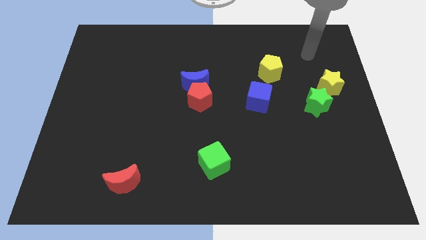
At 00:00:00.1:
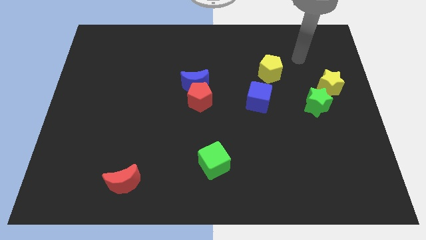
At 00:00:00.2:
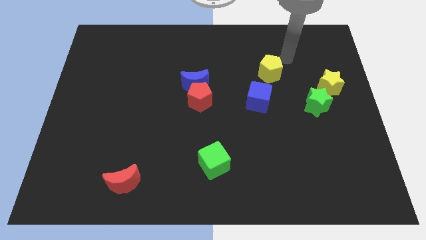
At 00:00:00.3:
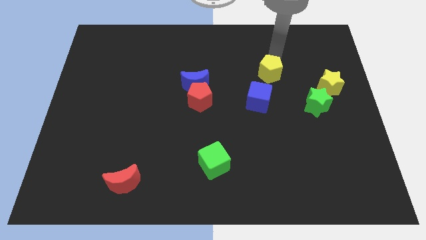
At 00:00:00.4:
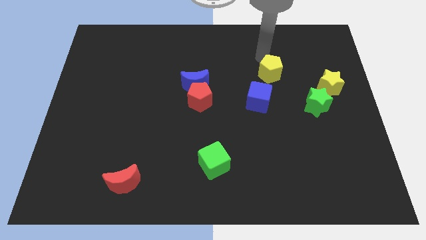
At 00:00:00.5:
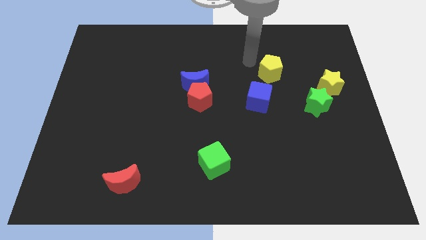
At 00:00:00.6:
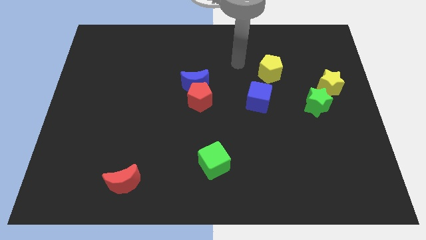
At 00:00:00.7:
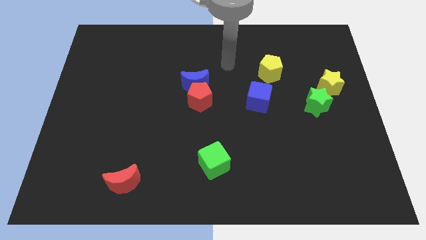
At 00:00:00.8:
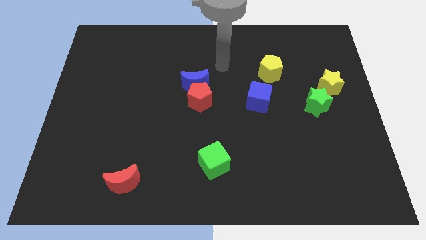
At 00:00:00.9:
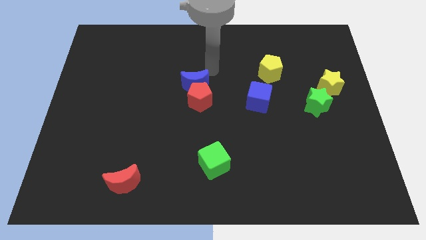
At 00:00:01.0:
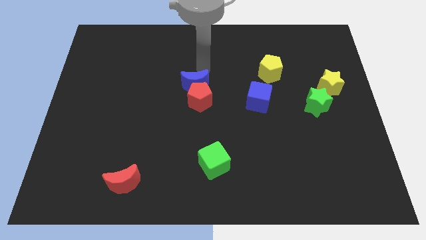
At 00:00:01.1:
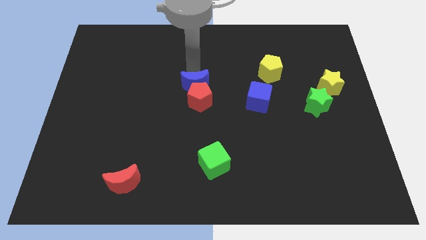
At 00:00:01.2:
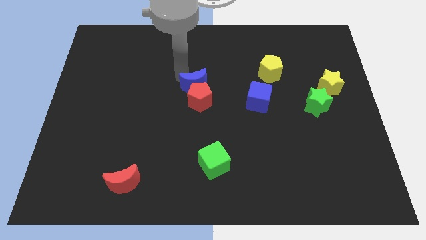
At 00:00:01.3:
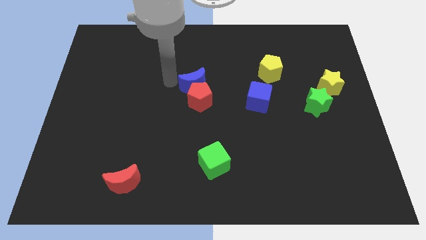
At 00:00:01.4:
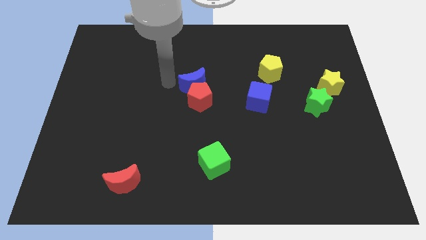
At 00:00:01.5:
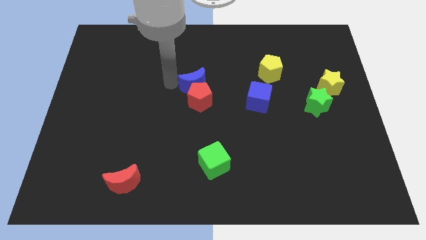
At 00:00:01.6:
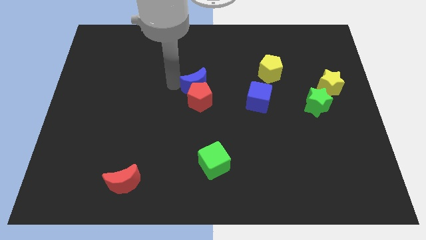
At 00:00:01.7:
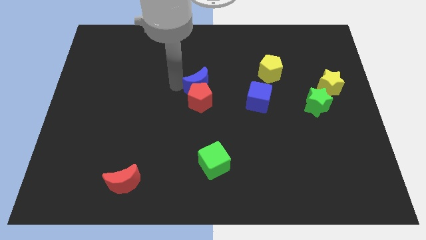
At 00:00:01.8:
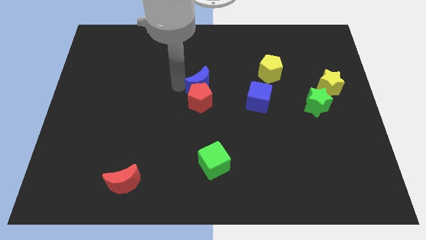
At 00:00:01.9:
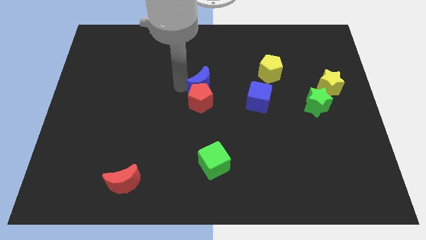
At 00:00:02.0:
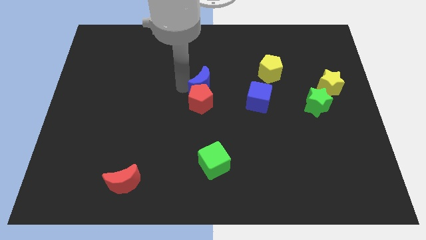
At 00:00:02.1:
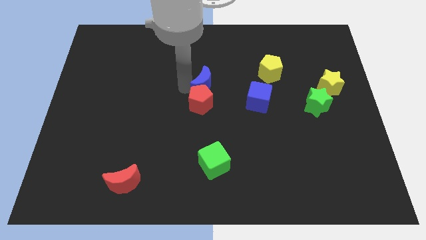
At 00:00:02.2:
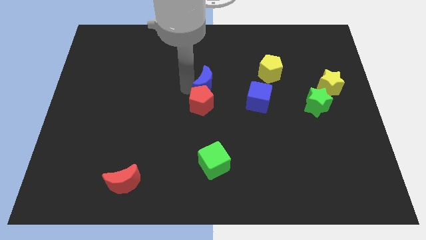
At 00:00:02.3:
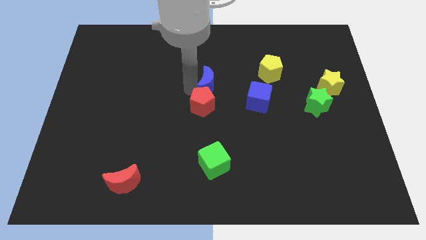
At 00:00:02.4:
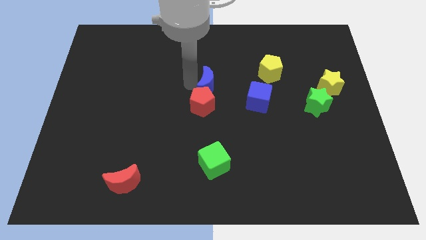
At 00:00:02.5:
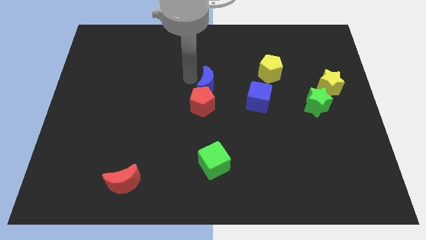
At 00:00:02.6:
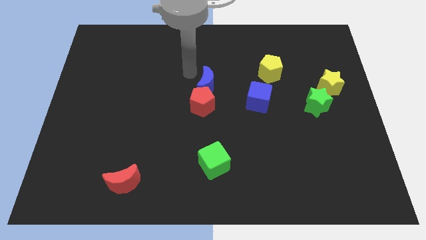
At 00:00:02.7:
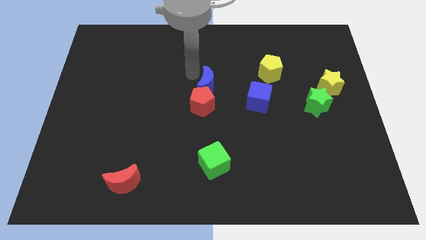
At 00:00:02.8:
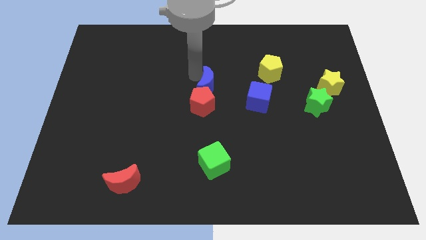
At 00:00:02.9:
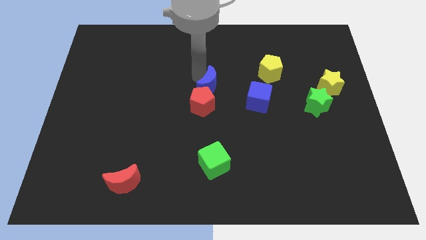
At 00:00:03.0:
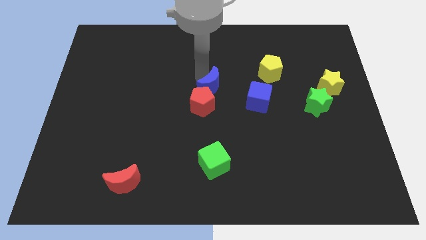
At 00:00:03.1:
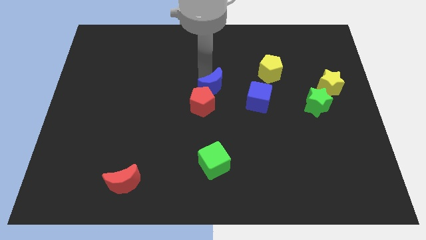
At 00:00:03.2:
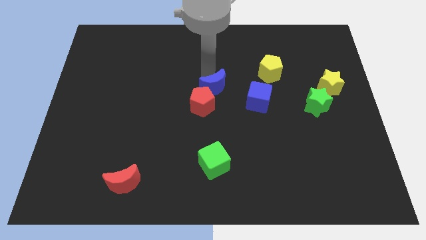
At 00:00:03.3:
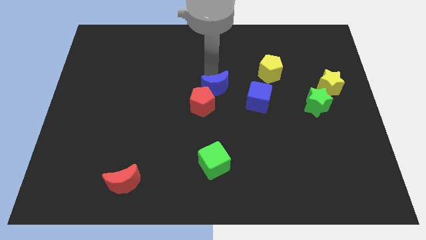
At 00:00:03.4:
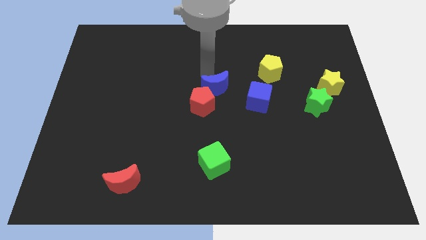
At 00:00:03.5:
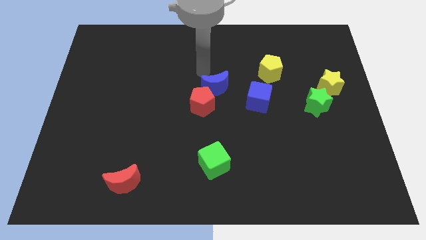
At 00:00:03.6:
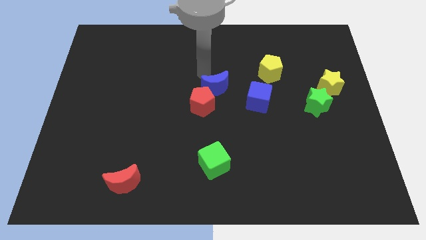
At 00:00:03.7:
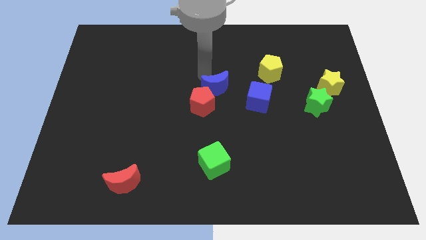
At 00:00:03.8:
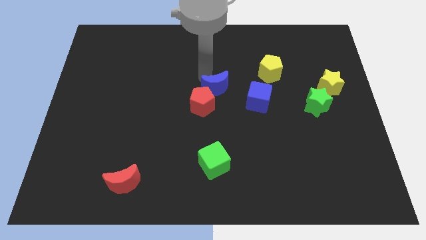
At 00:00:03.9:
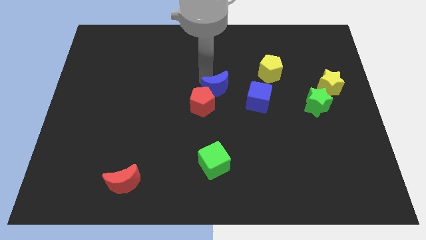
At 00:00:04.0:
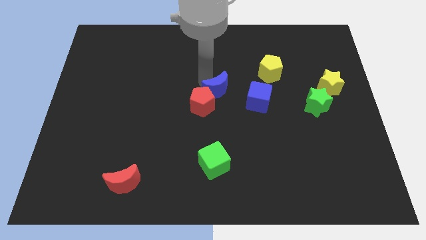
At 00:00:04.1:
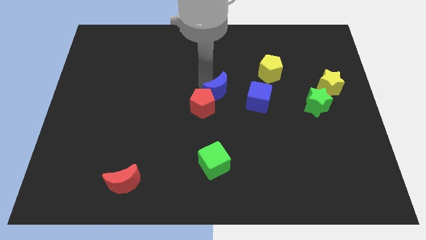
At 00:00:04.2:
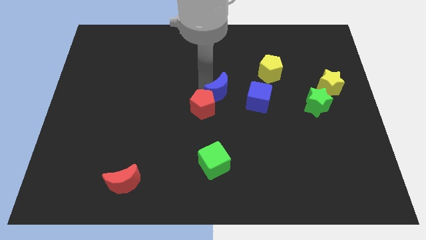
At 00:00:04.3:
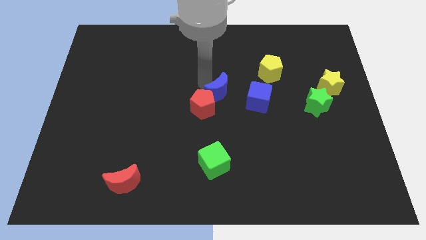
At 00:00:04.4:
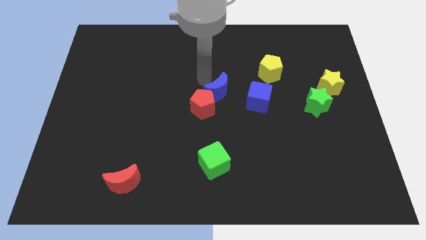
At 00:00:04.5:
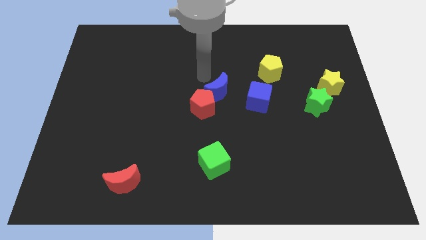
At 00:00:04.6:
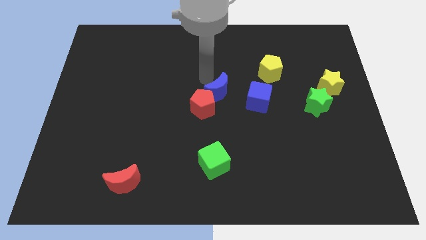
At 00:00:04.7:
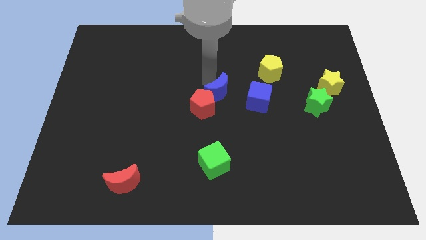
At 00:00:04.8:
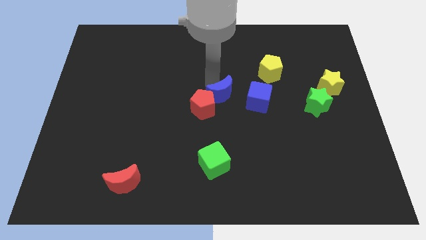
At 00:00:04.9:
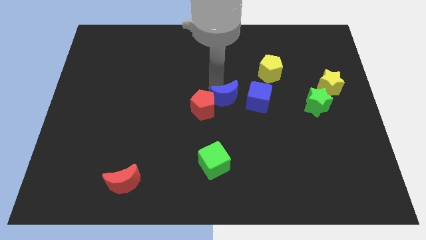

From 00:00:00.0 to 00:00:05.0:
move the blue moon somewhat downwards and to the right diagonally

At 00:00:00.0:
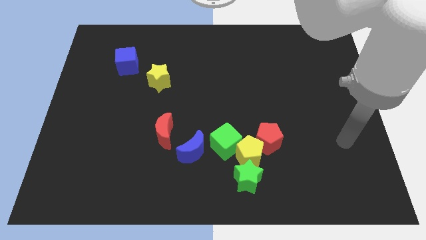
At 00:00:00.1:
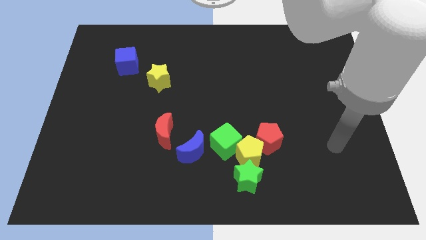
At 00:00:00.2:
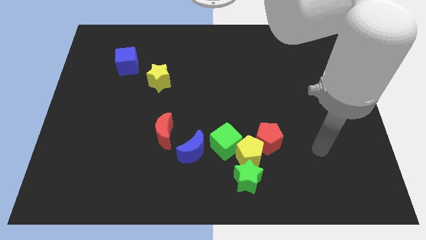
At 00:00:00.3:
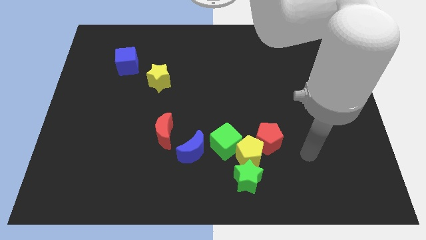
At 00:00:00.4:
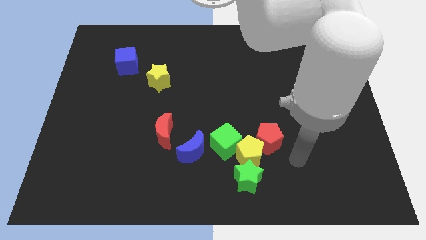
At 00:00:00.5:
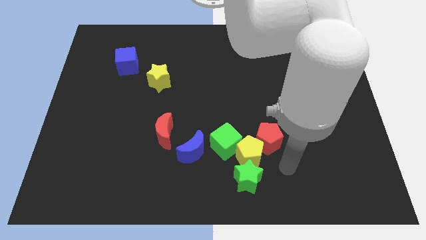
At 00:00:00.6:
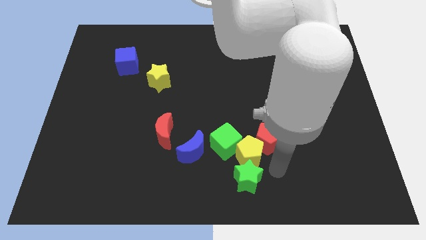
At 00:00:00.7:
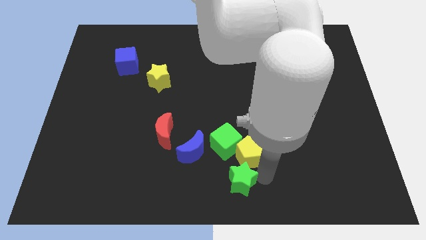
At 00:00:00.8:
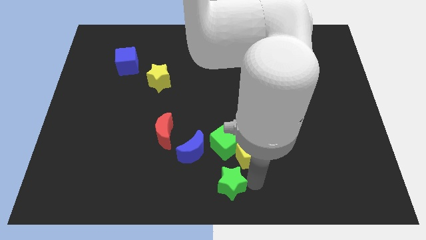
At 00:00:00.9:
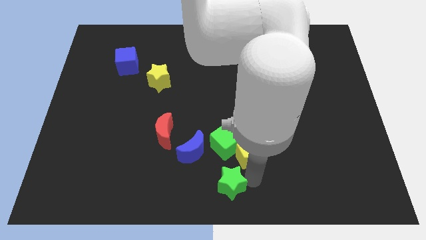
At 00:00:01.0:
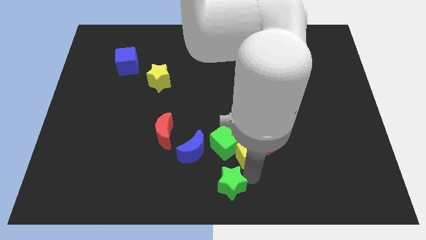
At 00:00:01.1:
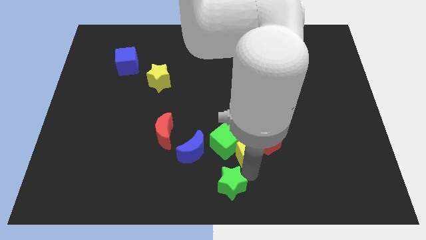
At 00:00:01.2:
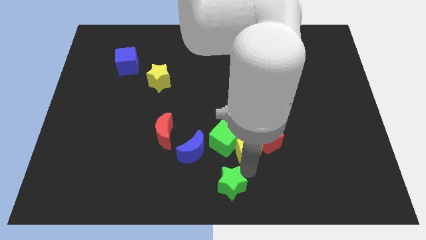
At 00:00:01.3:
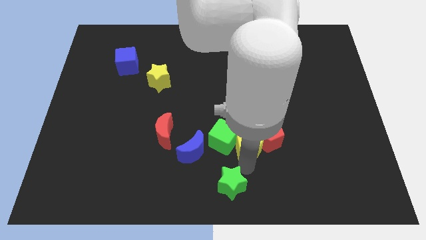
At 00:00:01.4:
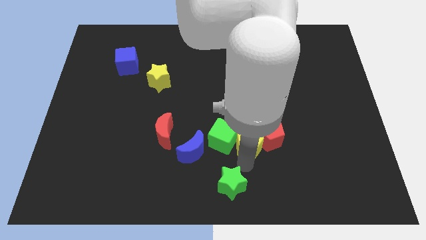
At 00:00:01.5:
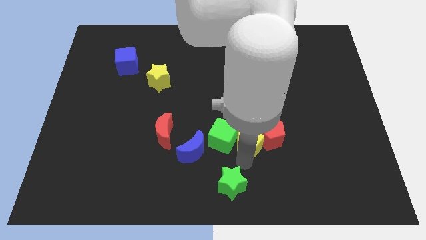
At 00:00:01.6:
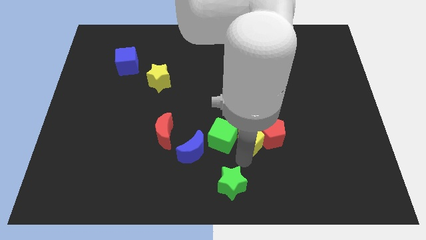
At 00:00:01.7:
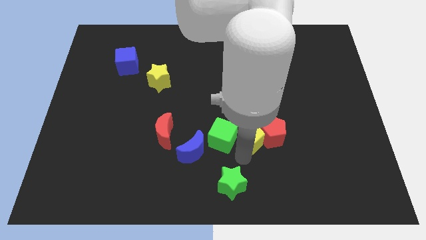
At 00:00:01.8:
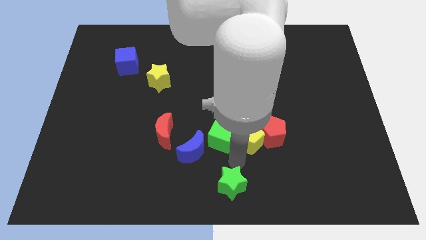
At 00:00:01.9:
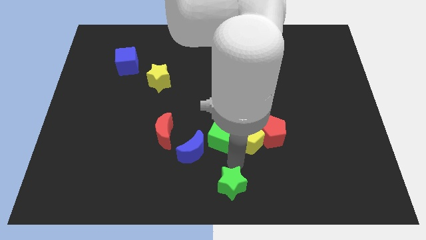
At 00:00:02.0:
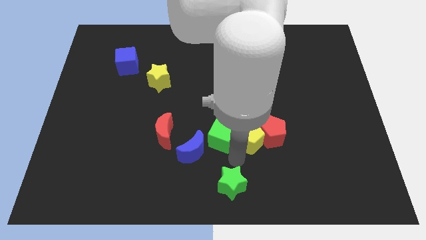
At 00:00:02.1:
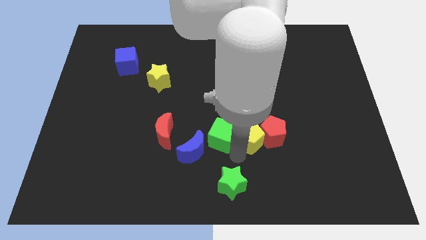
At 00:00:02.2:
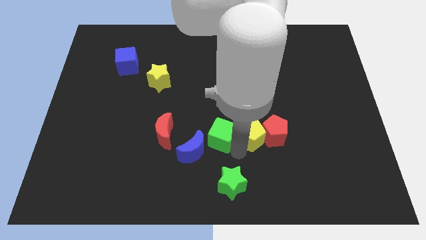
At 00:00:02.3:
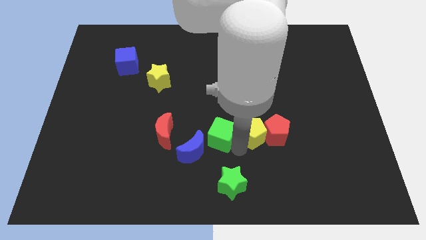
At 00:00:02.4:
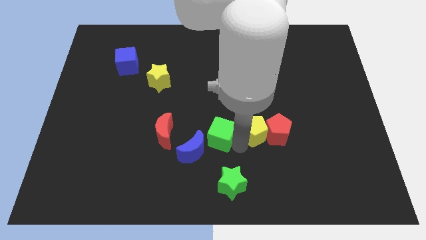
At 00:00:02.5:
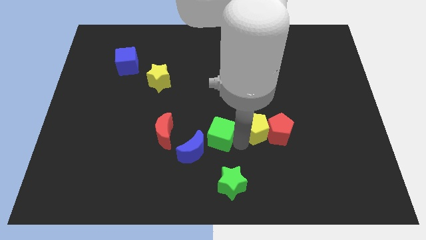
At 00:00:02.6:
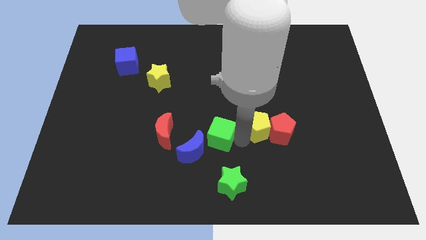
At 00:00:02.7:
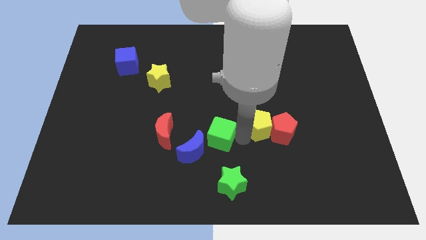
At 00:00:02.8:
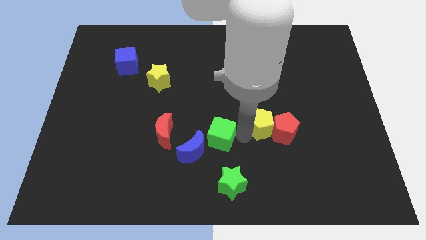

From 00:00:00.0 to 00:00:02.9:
slide the yellow pentagon upwards and then right slightly

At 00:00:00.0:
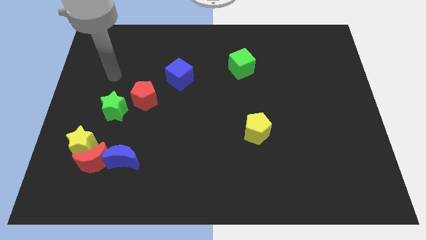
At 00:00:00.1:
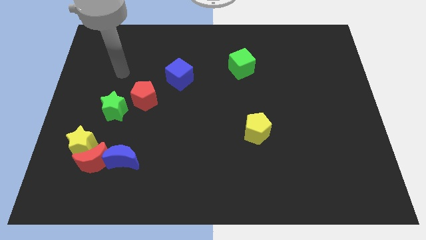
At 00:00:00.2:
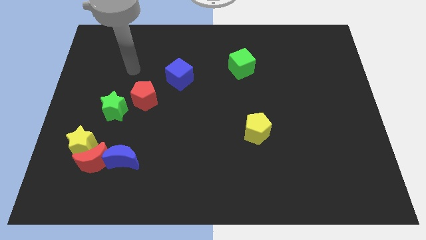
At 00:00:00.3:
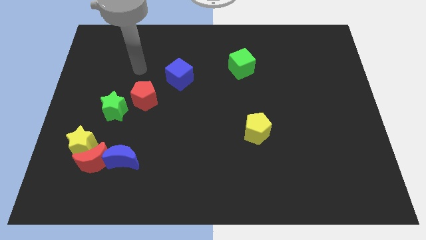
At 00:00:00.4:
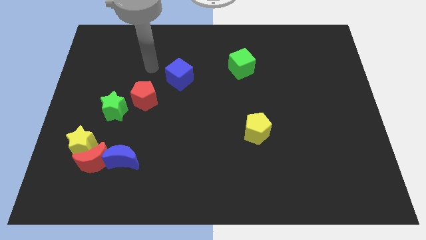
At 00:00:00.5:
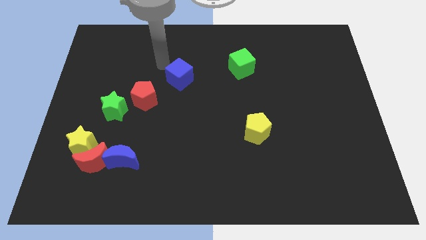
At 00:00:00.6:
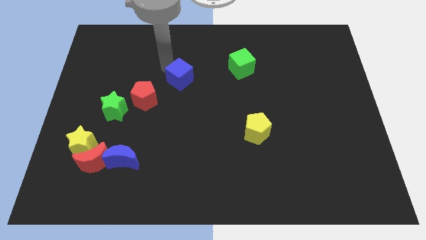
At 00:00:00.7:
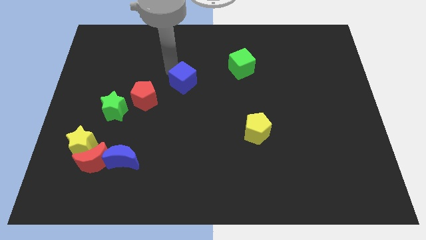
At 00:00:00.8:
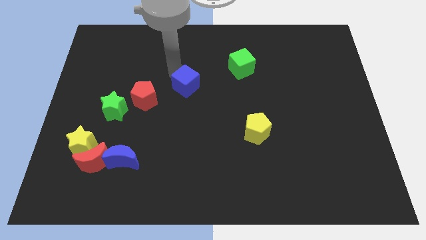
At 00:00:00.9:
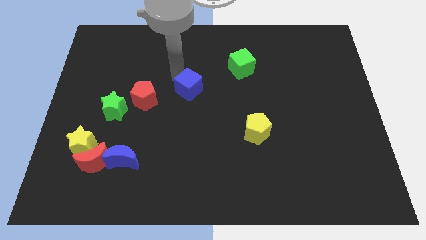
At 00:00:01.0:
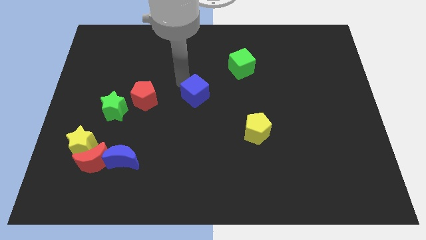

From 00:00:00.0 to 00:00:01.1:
move the blue cube down and to the right a little bit
